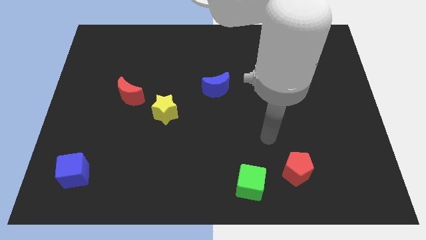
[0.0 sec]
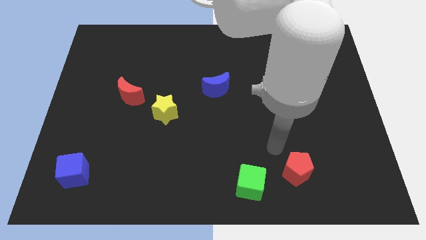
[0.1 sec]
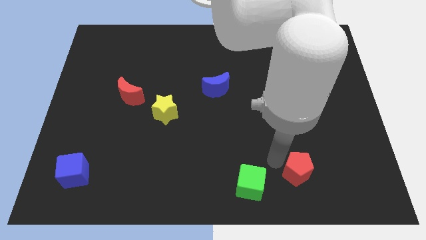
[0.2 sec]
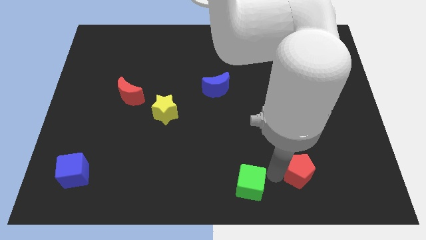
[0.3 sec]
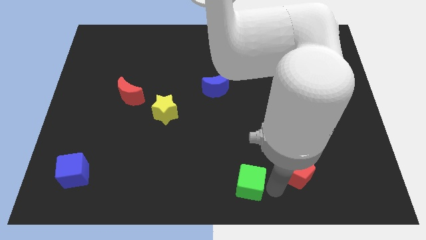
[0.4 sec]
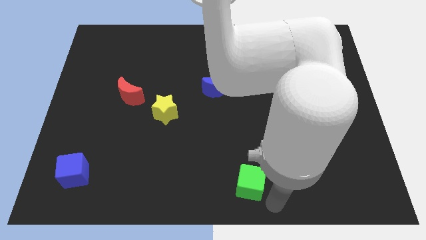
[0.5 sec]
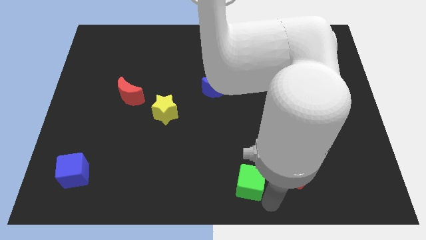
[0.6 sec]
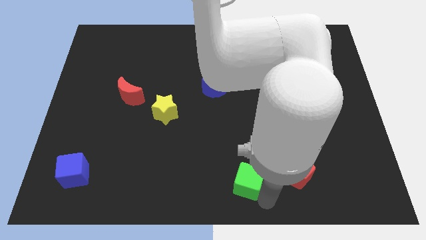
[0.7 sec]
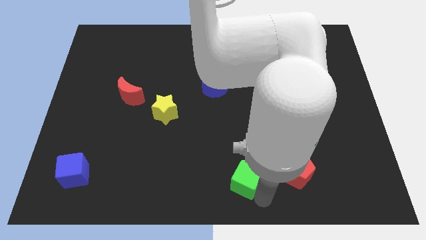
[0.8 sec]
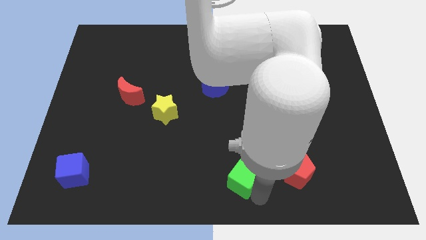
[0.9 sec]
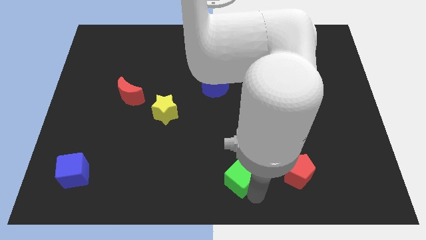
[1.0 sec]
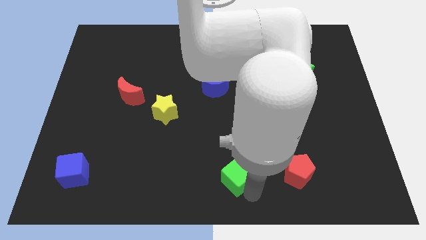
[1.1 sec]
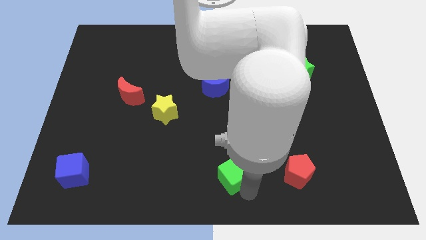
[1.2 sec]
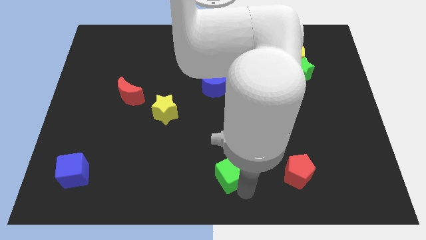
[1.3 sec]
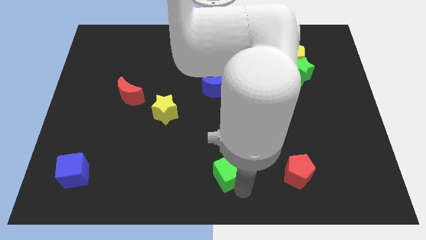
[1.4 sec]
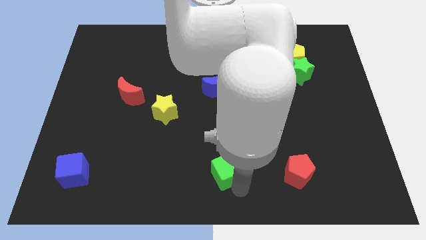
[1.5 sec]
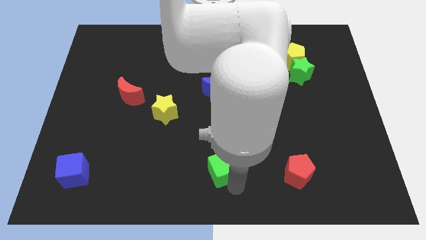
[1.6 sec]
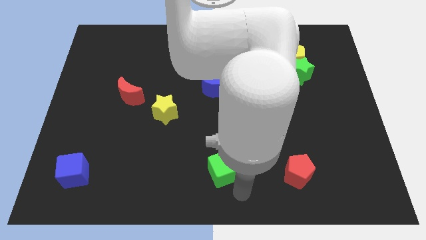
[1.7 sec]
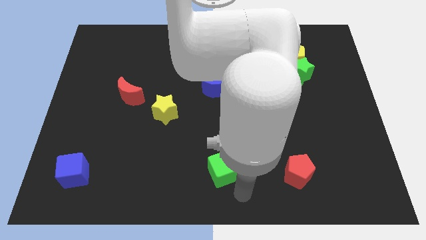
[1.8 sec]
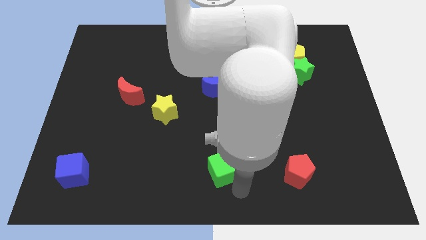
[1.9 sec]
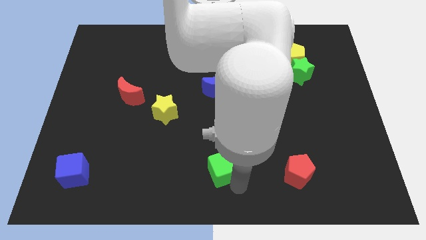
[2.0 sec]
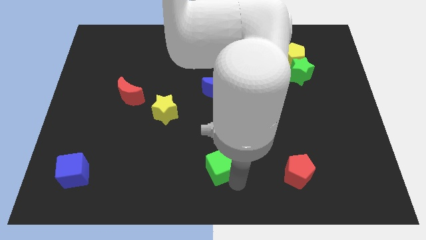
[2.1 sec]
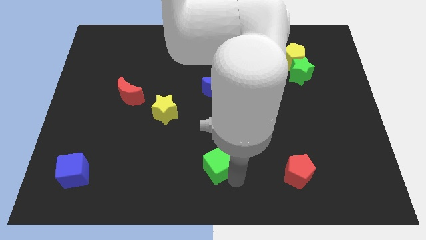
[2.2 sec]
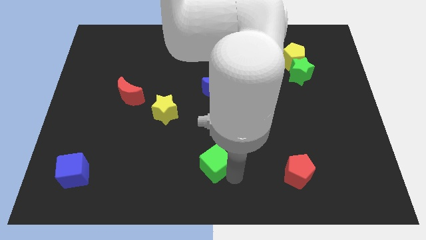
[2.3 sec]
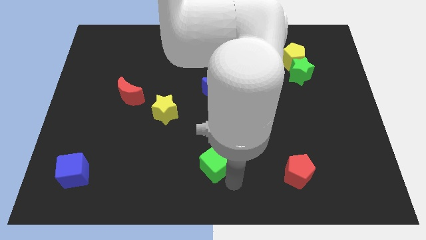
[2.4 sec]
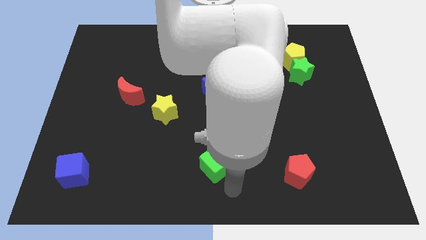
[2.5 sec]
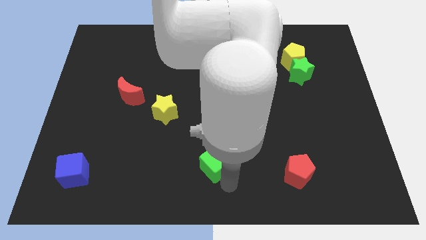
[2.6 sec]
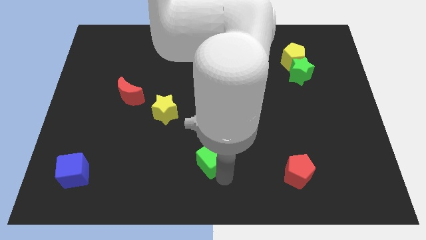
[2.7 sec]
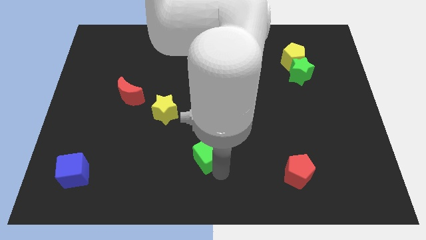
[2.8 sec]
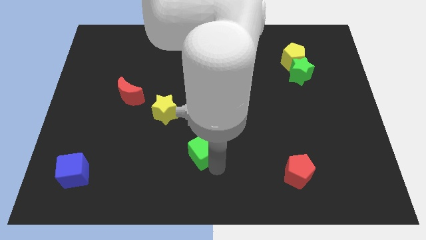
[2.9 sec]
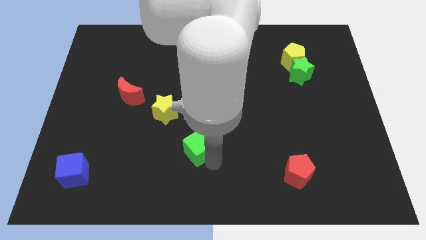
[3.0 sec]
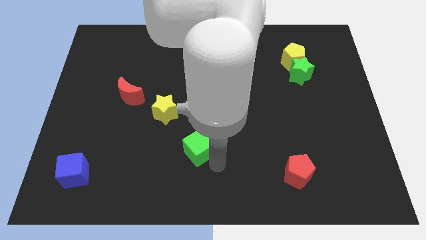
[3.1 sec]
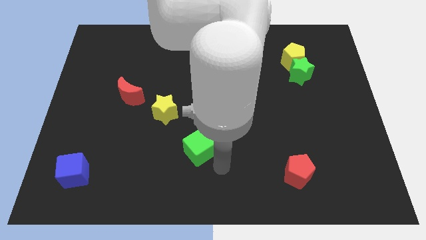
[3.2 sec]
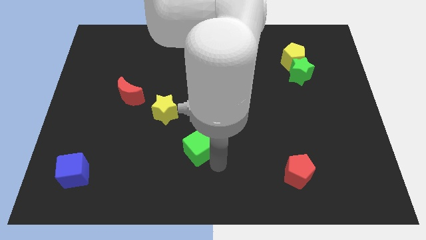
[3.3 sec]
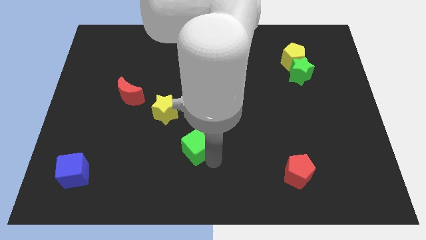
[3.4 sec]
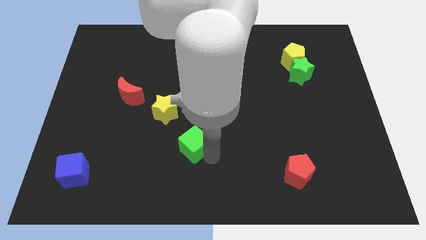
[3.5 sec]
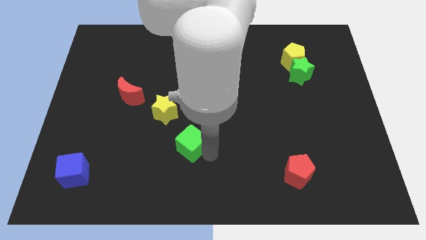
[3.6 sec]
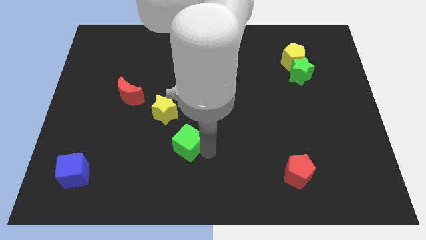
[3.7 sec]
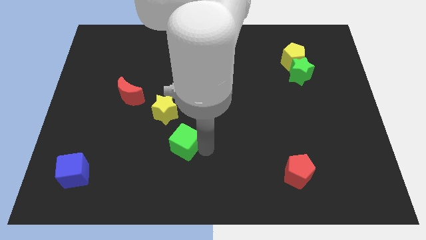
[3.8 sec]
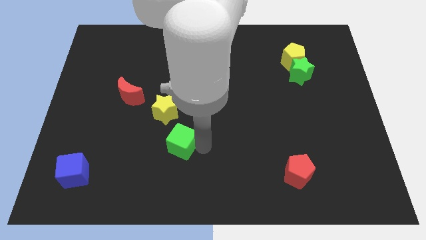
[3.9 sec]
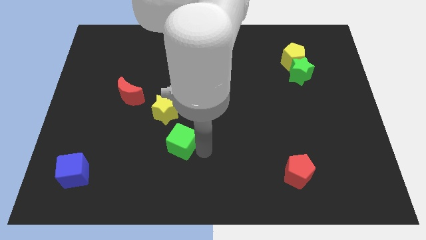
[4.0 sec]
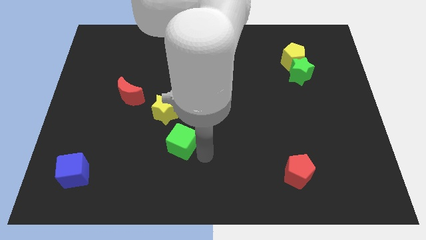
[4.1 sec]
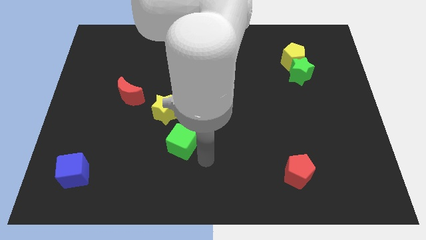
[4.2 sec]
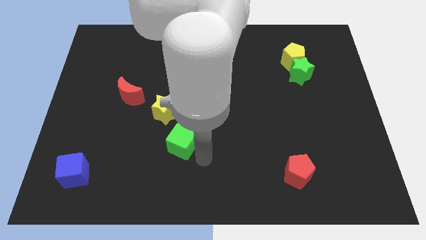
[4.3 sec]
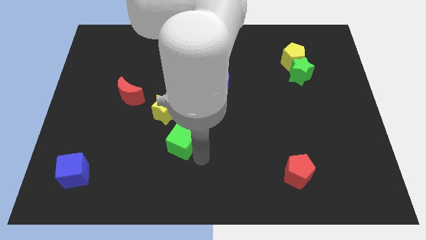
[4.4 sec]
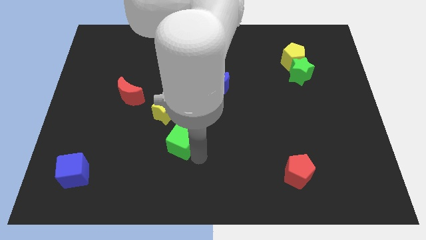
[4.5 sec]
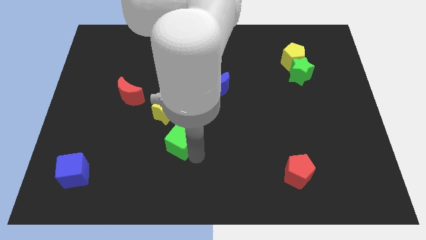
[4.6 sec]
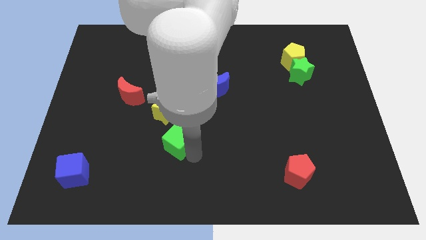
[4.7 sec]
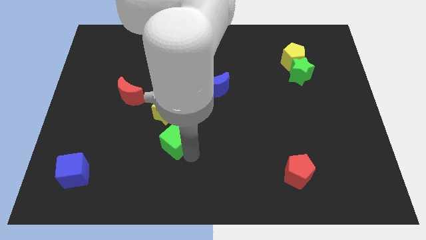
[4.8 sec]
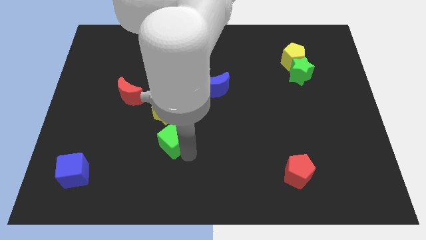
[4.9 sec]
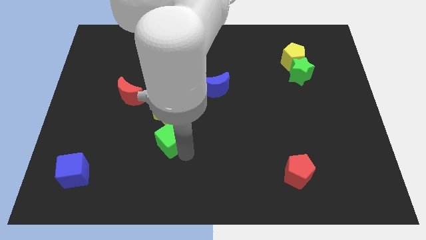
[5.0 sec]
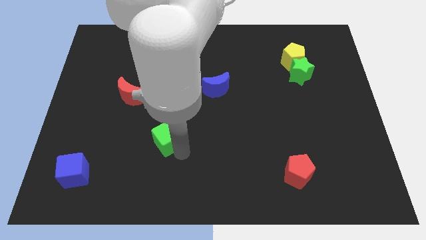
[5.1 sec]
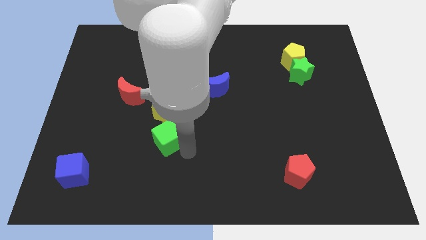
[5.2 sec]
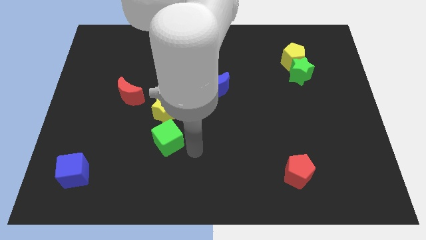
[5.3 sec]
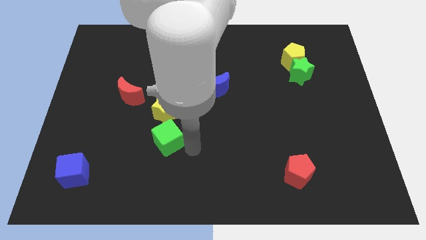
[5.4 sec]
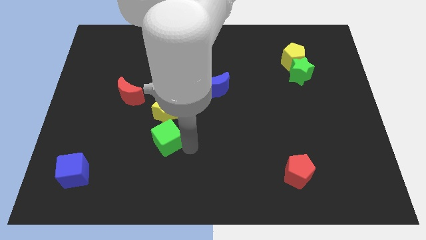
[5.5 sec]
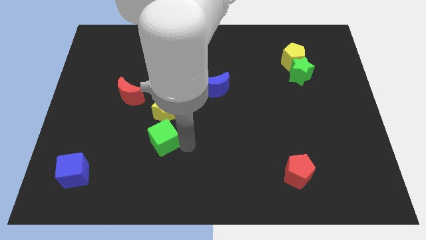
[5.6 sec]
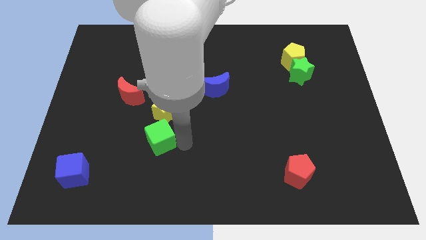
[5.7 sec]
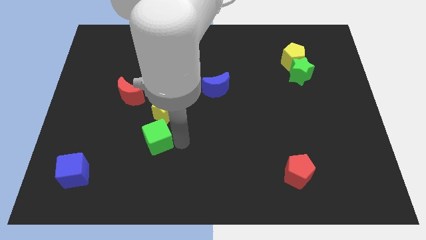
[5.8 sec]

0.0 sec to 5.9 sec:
push the green cube to the bottom left of the yellow star
